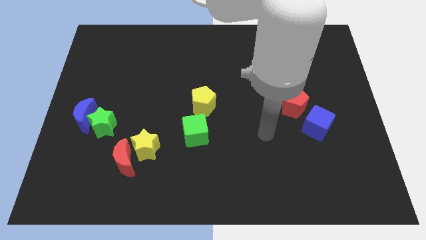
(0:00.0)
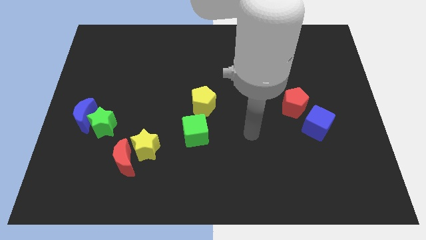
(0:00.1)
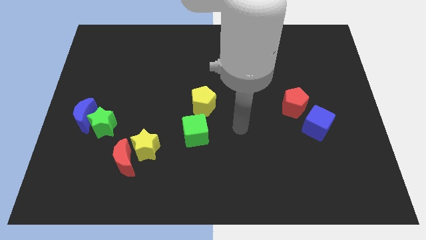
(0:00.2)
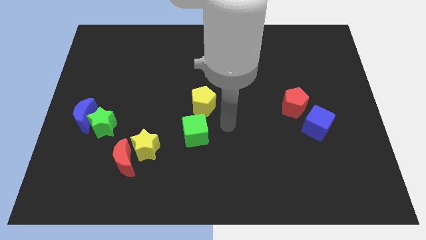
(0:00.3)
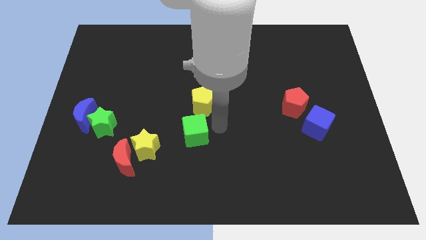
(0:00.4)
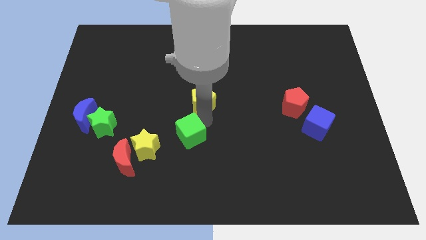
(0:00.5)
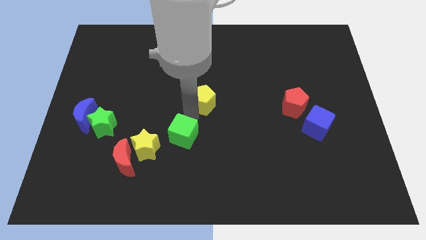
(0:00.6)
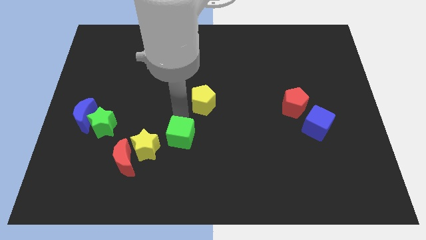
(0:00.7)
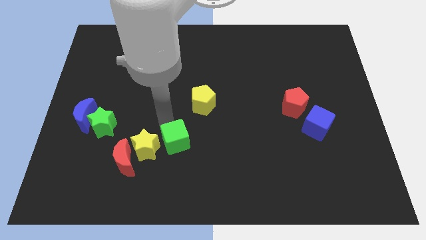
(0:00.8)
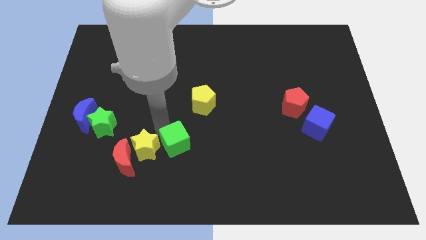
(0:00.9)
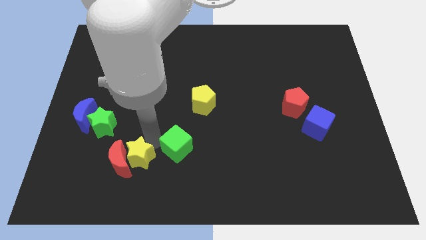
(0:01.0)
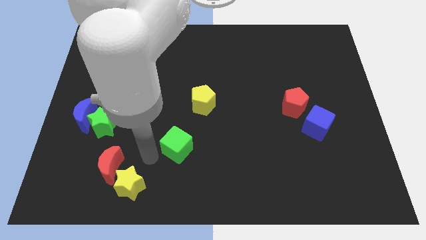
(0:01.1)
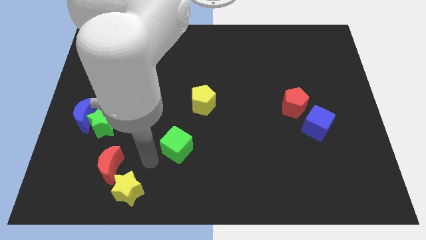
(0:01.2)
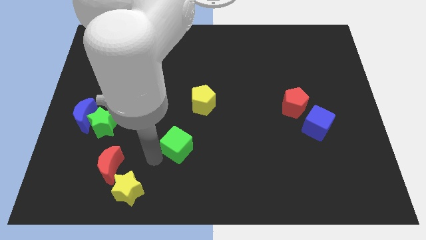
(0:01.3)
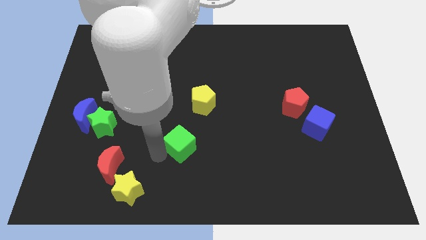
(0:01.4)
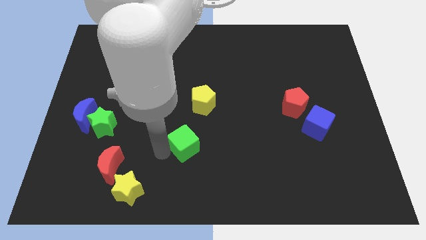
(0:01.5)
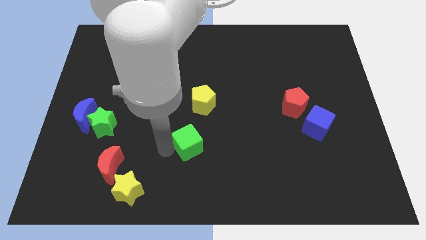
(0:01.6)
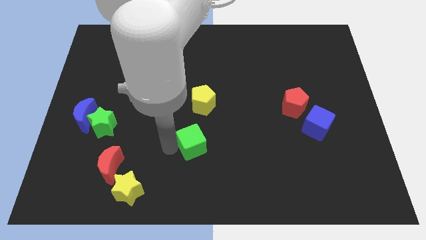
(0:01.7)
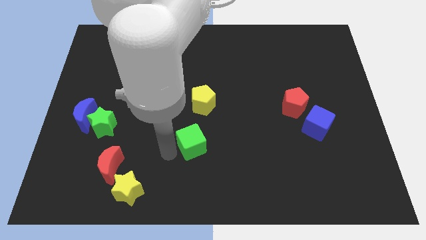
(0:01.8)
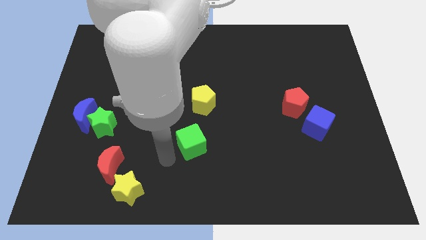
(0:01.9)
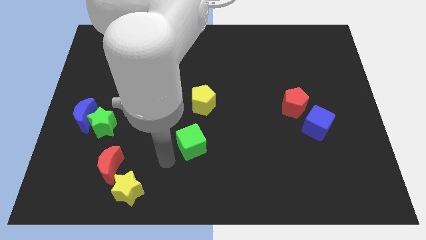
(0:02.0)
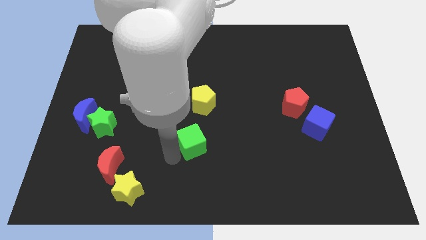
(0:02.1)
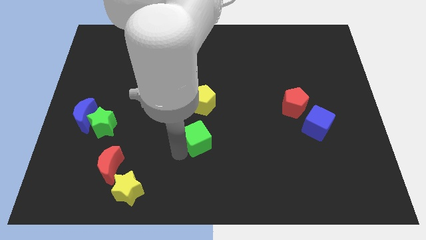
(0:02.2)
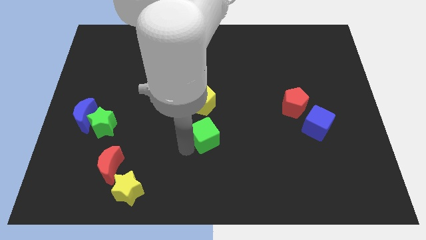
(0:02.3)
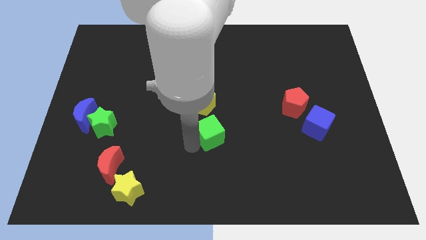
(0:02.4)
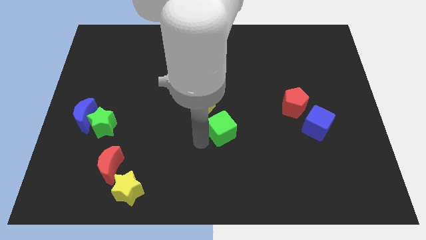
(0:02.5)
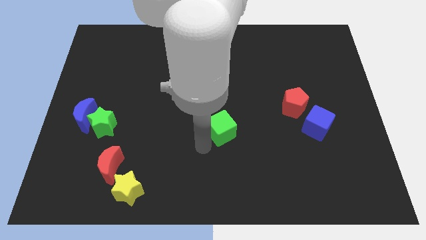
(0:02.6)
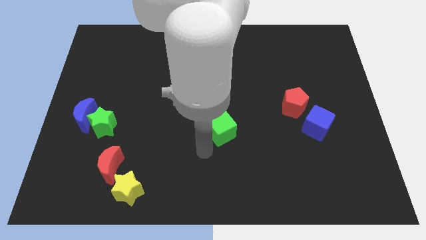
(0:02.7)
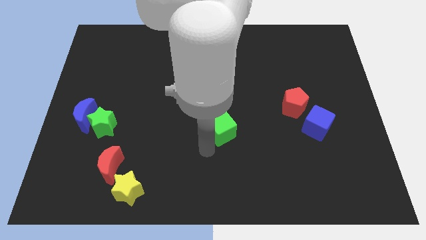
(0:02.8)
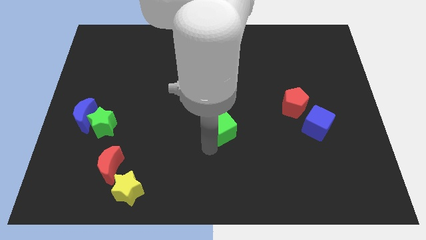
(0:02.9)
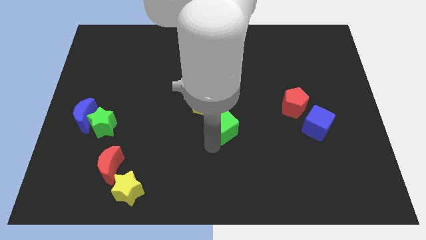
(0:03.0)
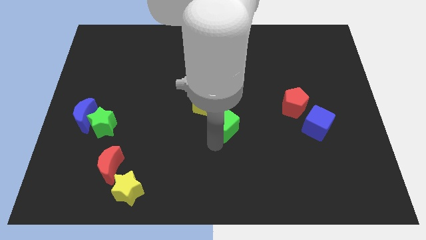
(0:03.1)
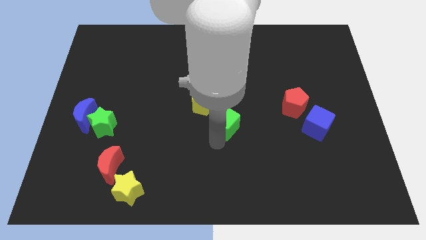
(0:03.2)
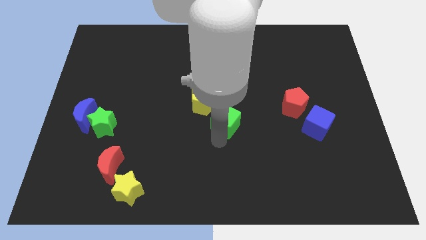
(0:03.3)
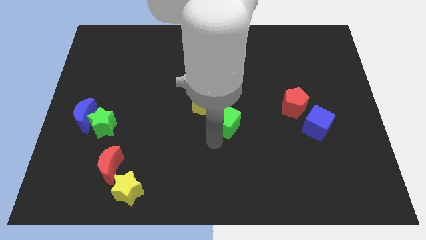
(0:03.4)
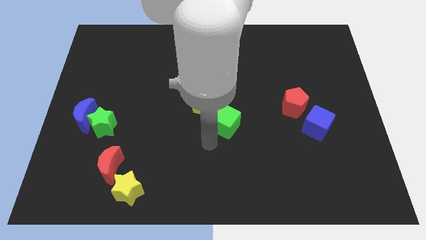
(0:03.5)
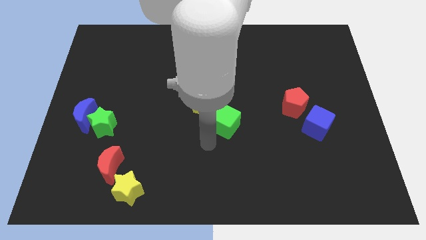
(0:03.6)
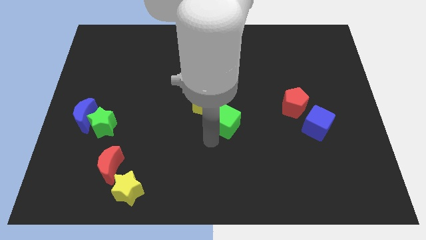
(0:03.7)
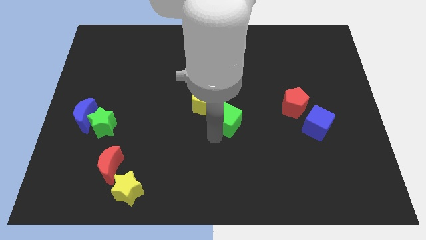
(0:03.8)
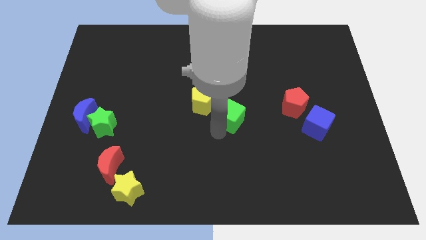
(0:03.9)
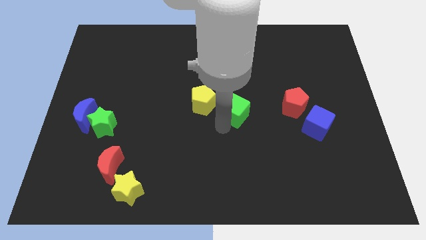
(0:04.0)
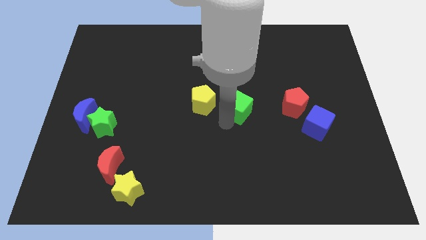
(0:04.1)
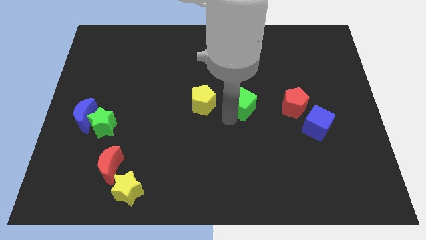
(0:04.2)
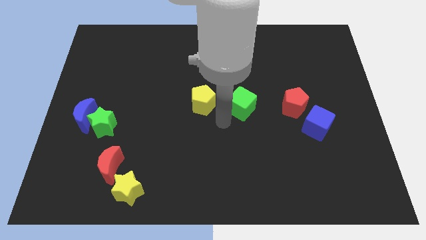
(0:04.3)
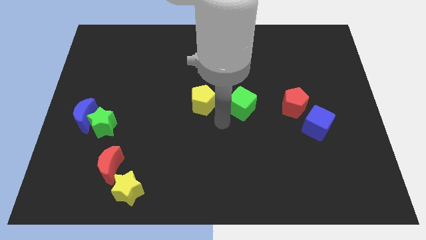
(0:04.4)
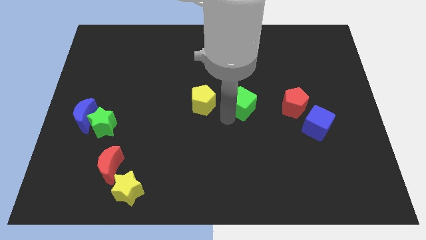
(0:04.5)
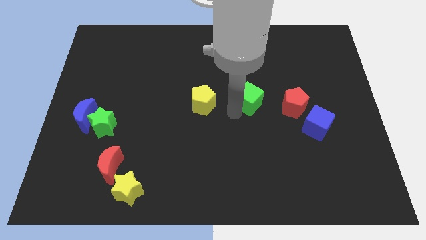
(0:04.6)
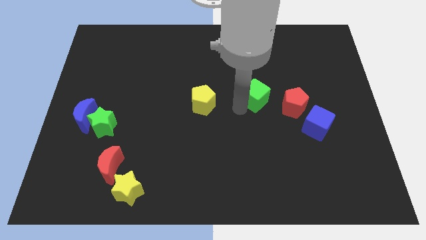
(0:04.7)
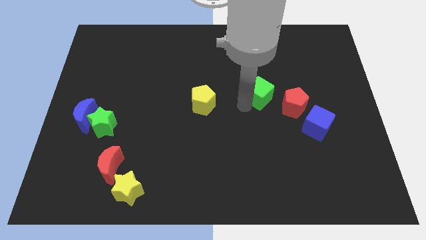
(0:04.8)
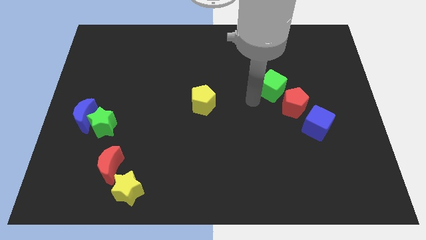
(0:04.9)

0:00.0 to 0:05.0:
put the green cube to the top side of the red pentagon

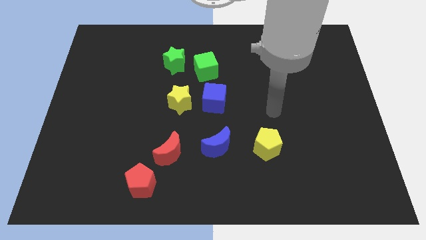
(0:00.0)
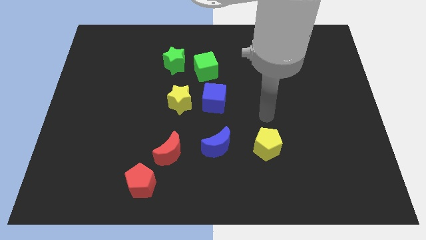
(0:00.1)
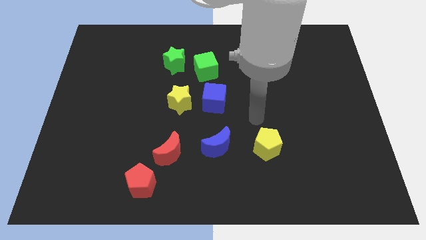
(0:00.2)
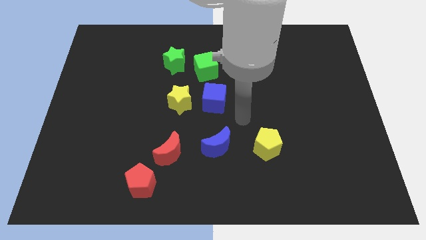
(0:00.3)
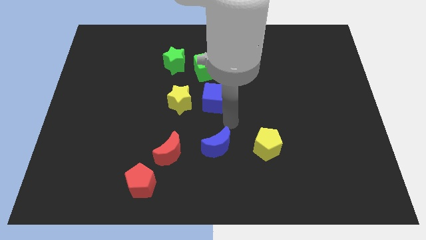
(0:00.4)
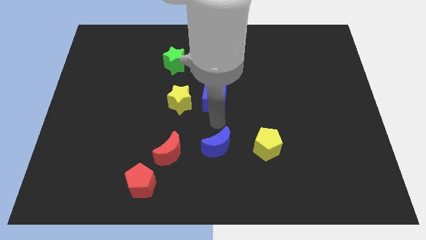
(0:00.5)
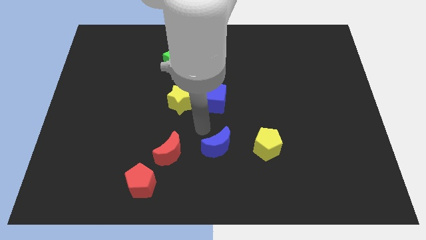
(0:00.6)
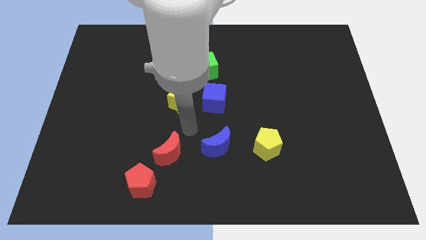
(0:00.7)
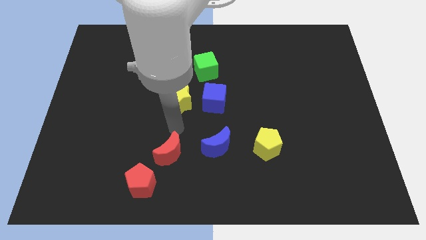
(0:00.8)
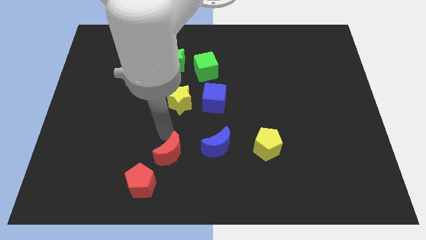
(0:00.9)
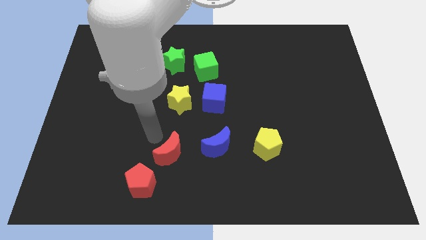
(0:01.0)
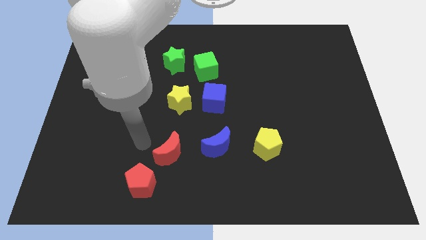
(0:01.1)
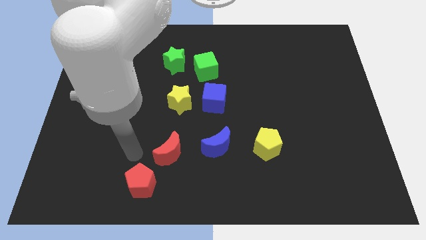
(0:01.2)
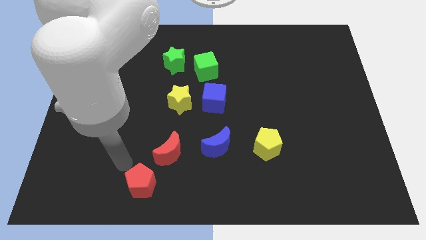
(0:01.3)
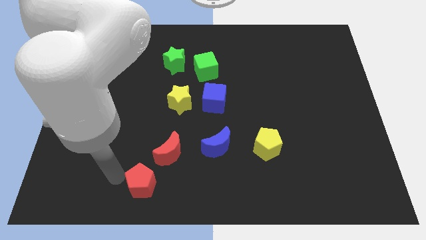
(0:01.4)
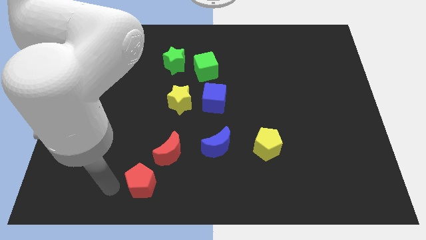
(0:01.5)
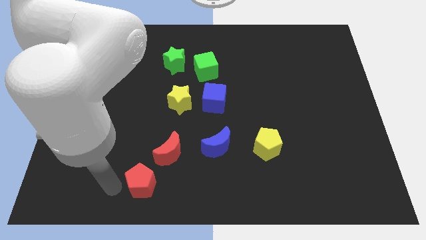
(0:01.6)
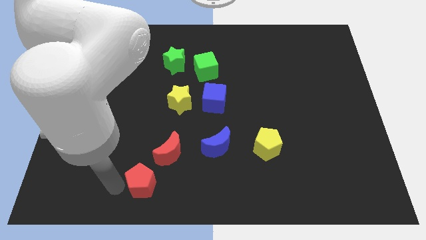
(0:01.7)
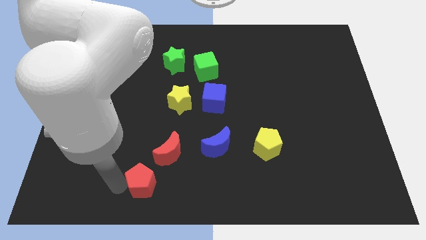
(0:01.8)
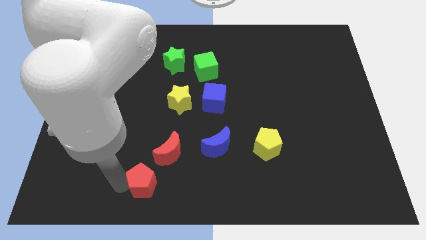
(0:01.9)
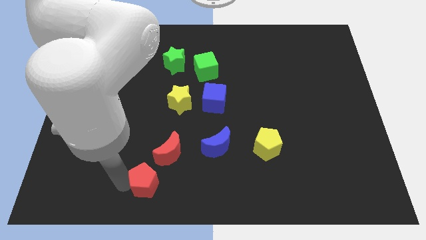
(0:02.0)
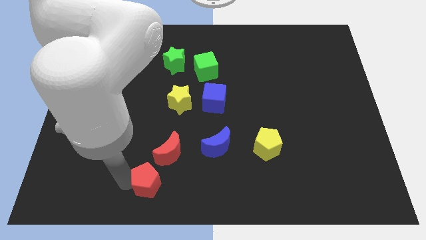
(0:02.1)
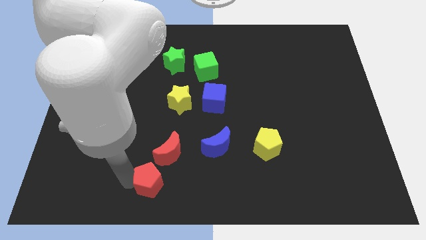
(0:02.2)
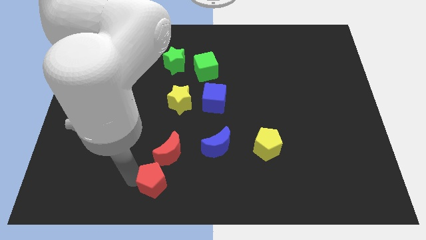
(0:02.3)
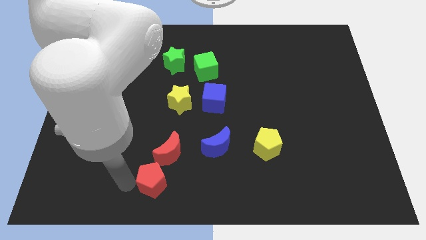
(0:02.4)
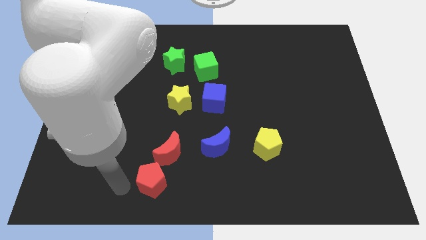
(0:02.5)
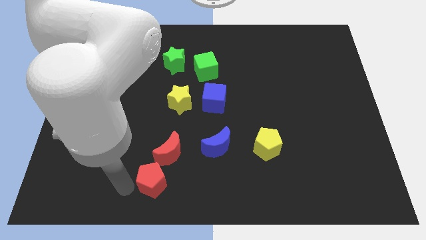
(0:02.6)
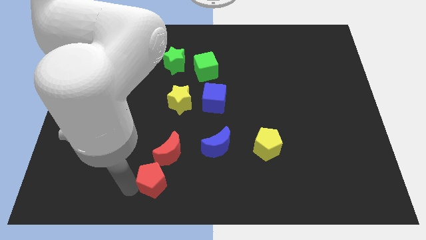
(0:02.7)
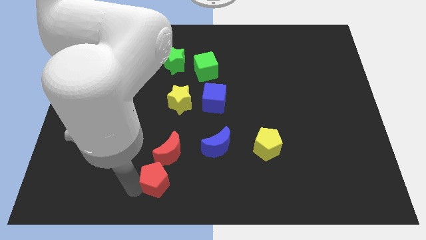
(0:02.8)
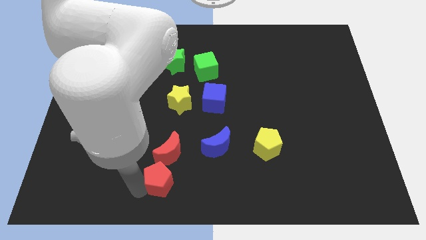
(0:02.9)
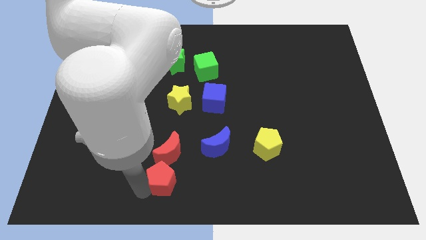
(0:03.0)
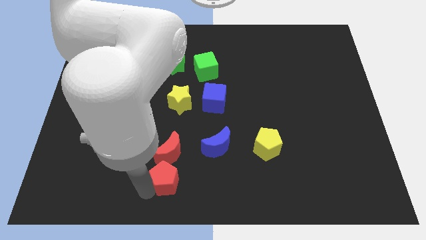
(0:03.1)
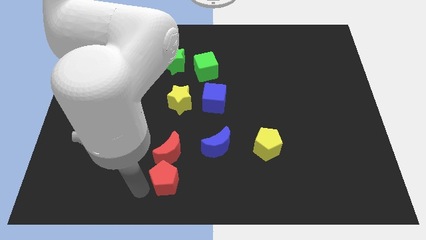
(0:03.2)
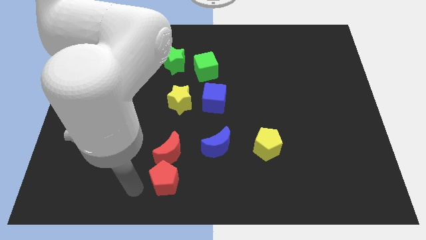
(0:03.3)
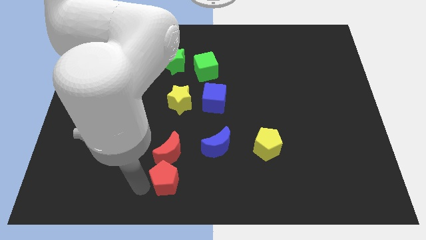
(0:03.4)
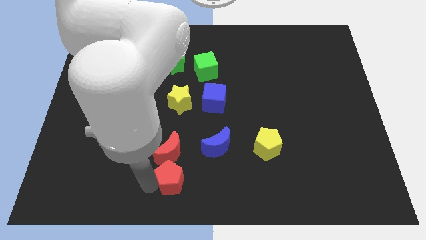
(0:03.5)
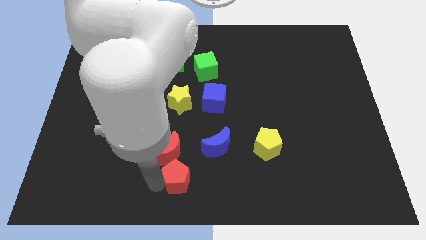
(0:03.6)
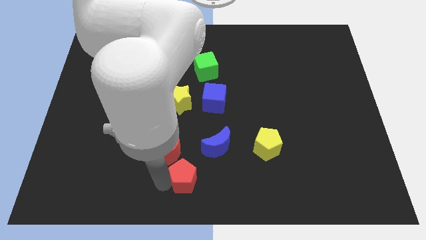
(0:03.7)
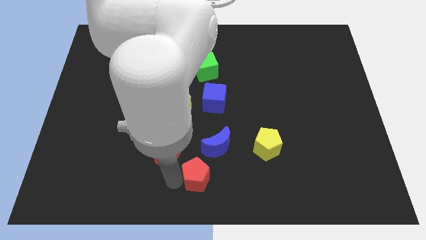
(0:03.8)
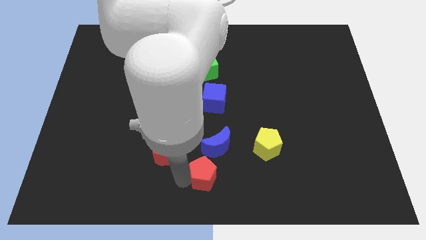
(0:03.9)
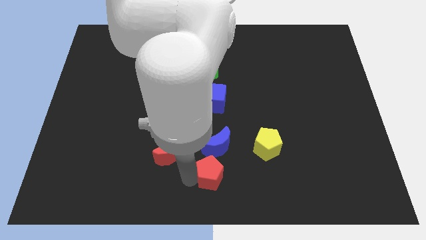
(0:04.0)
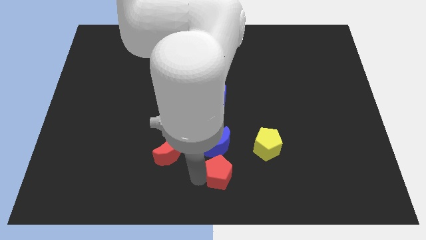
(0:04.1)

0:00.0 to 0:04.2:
slide the red pentagon to the bottom right side of the blue moon
